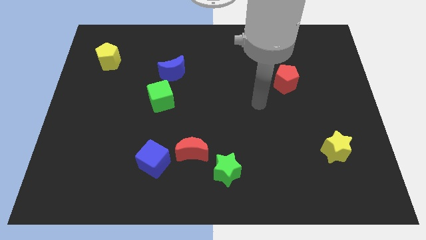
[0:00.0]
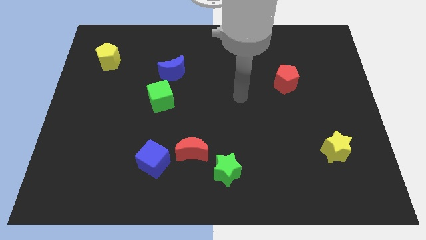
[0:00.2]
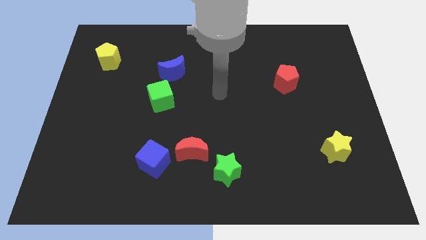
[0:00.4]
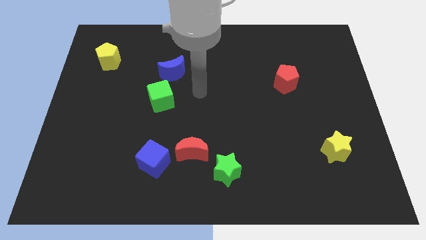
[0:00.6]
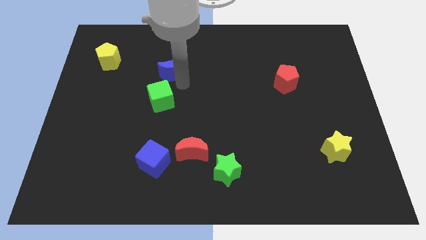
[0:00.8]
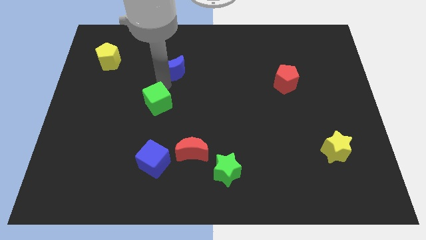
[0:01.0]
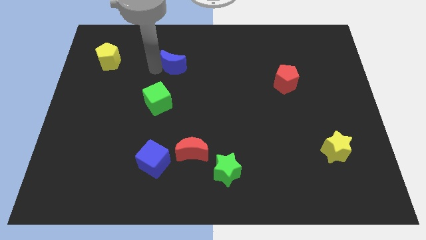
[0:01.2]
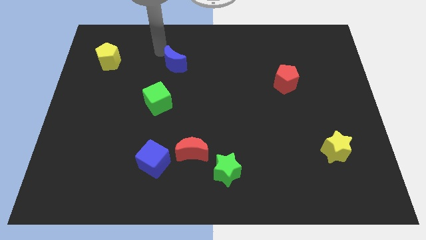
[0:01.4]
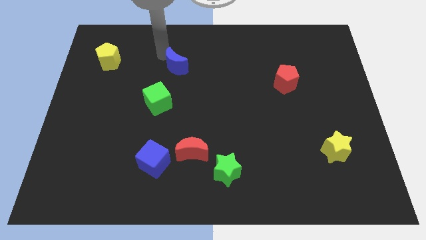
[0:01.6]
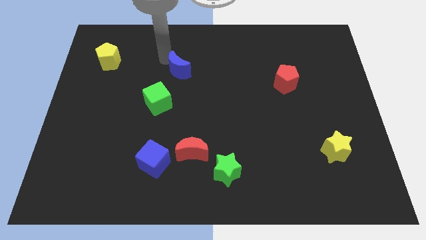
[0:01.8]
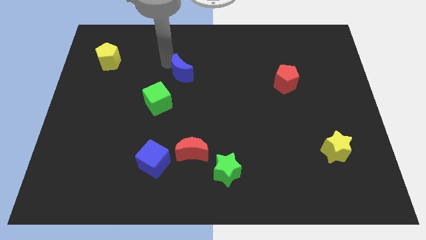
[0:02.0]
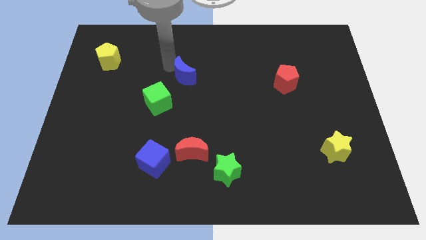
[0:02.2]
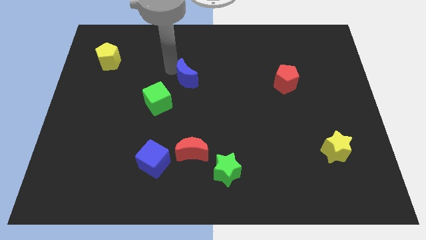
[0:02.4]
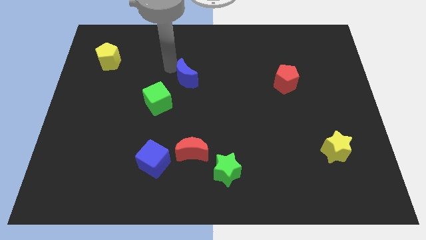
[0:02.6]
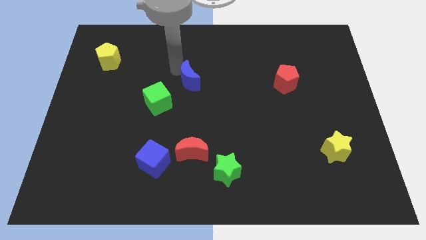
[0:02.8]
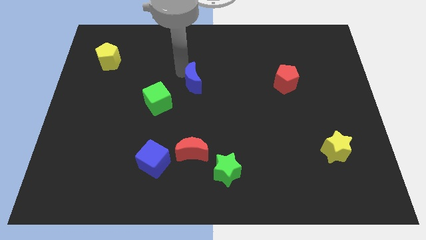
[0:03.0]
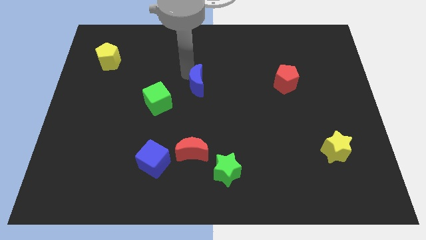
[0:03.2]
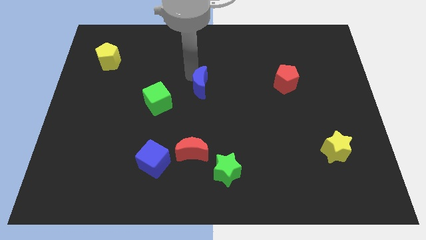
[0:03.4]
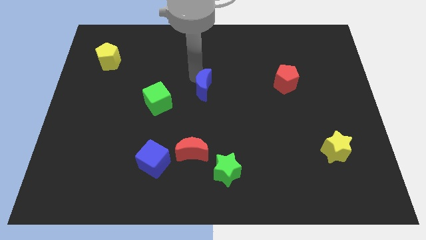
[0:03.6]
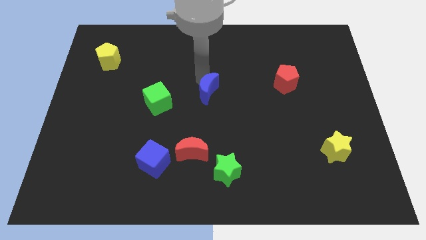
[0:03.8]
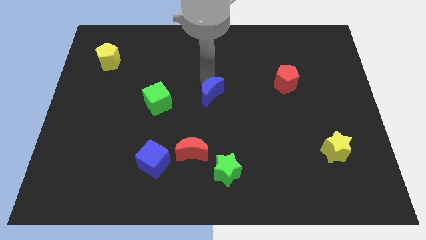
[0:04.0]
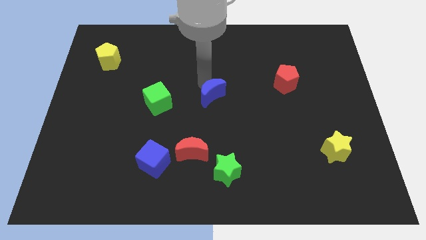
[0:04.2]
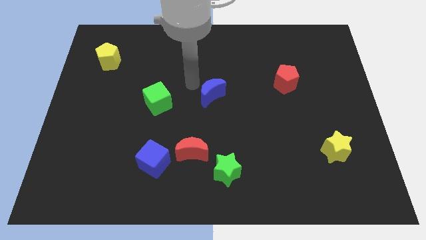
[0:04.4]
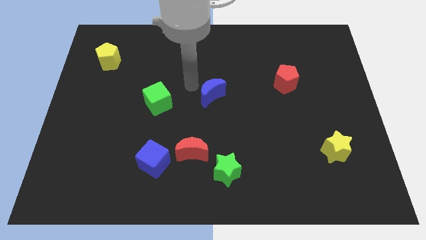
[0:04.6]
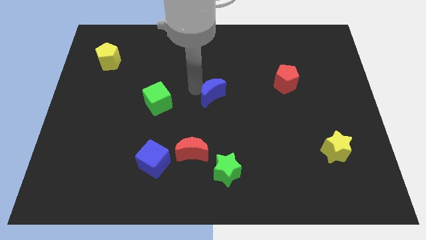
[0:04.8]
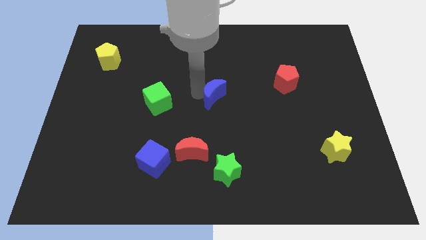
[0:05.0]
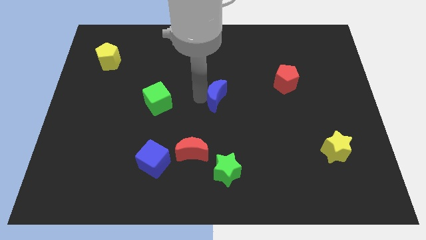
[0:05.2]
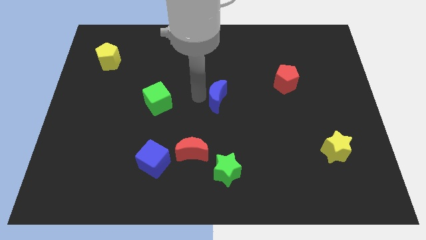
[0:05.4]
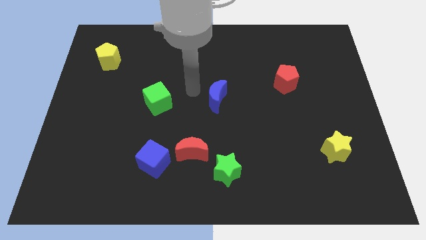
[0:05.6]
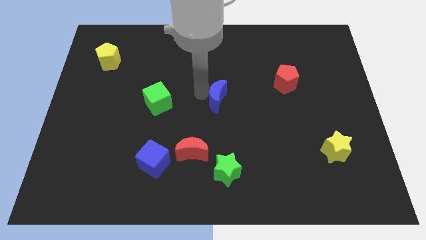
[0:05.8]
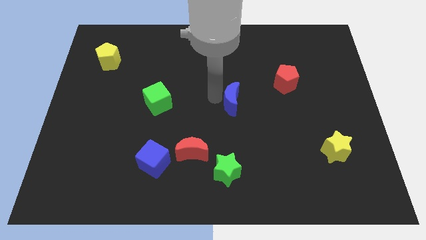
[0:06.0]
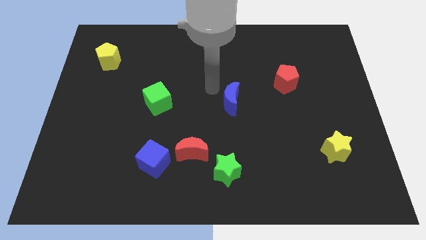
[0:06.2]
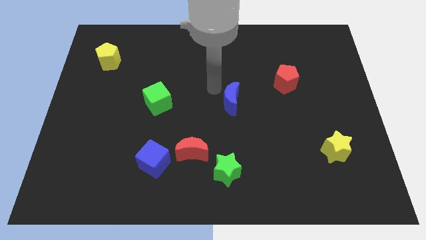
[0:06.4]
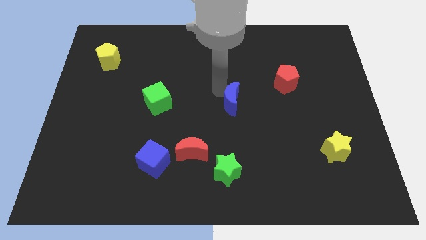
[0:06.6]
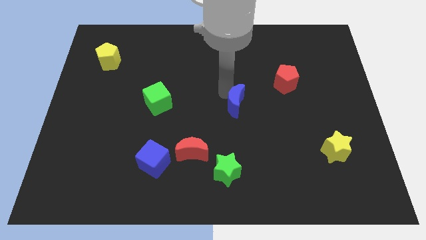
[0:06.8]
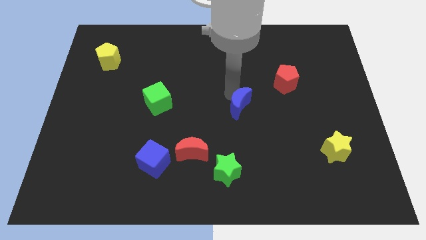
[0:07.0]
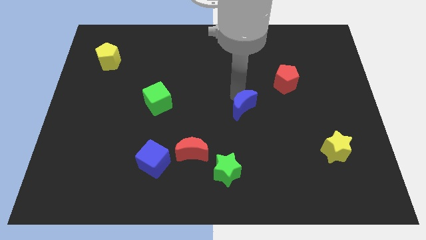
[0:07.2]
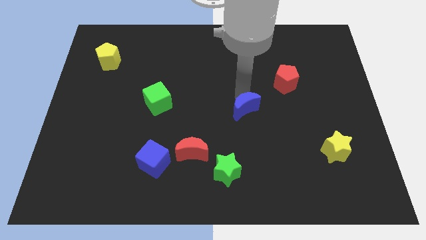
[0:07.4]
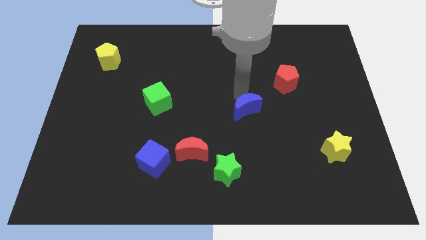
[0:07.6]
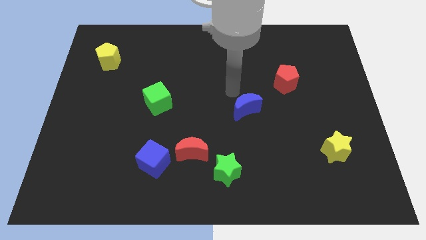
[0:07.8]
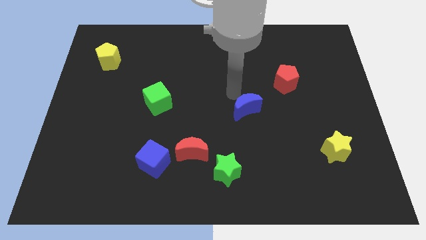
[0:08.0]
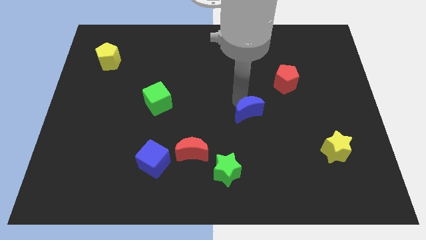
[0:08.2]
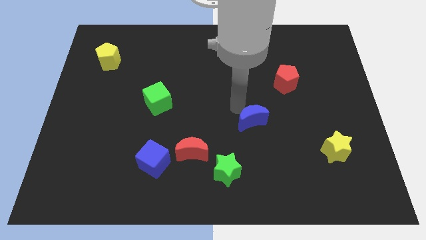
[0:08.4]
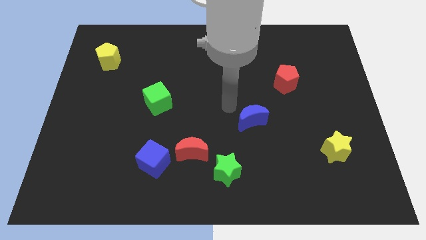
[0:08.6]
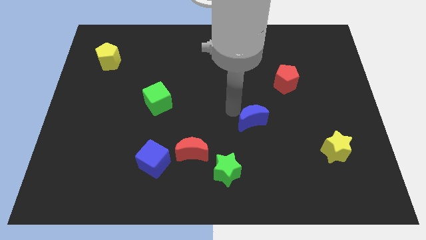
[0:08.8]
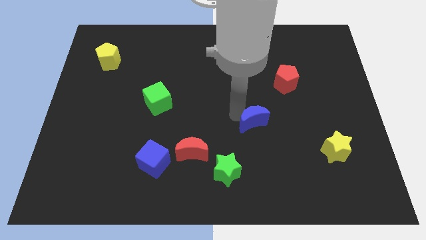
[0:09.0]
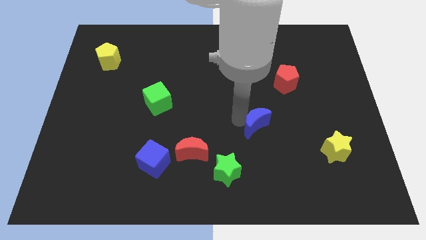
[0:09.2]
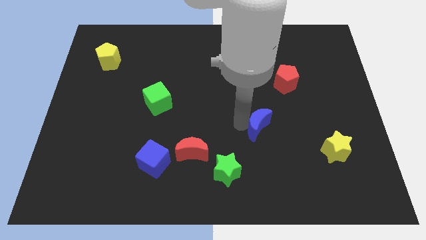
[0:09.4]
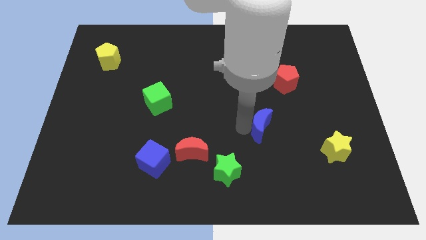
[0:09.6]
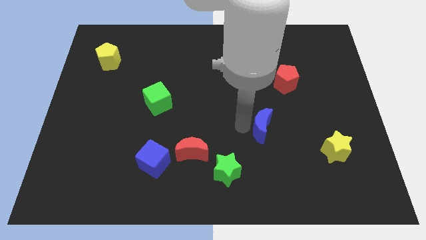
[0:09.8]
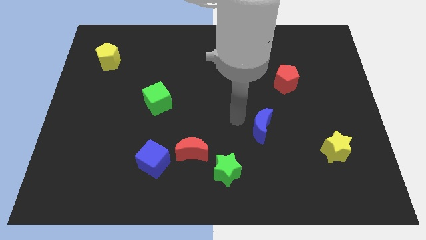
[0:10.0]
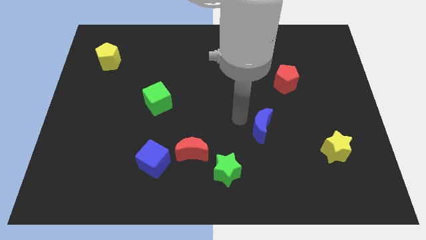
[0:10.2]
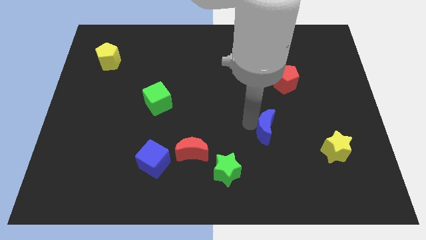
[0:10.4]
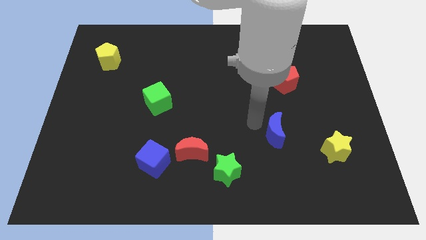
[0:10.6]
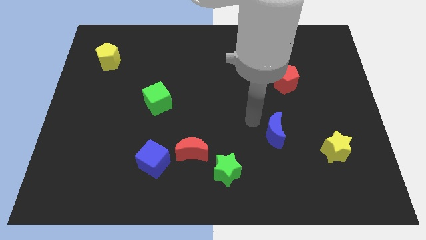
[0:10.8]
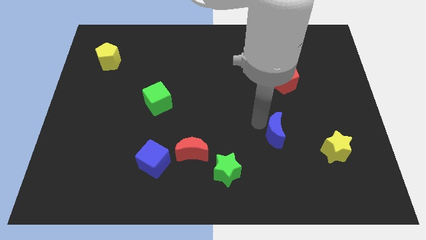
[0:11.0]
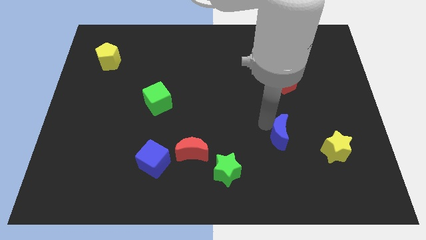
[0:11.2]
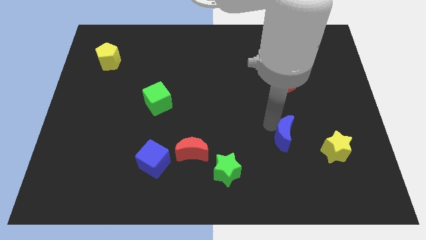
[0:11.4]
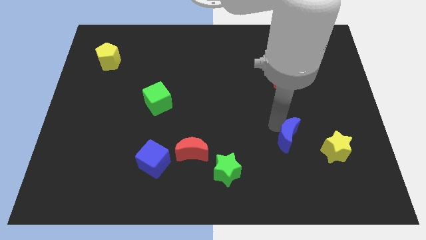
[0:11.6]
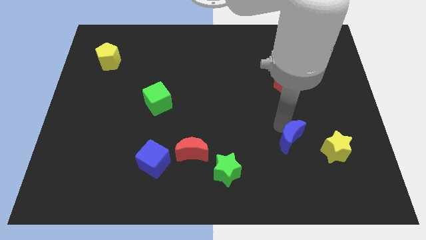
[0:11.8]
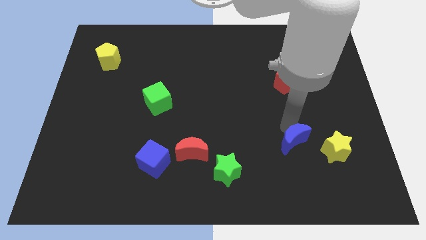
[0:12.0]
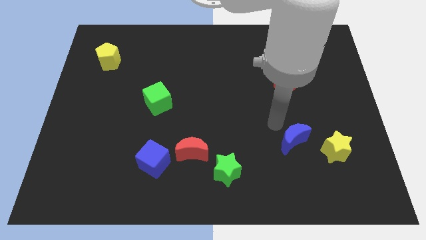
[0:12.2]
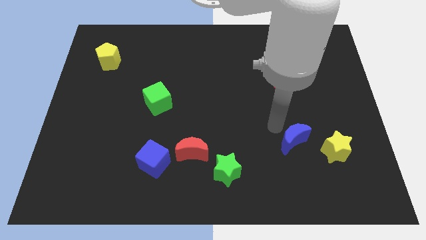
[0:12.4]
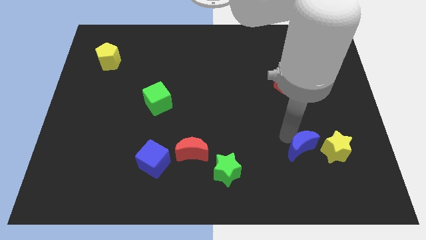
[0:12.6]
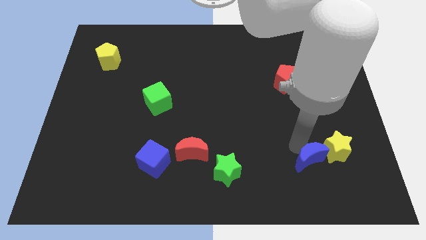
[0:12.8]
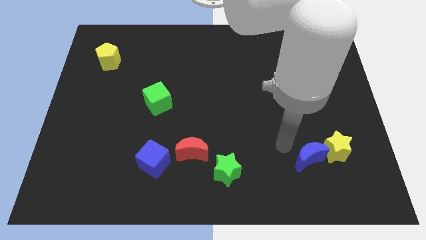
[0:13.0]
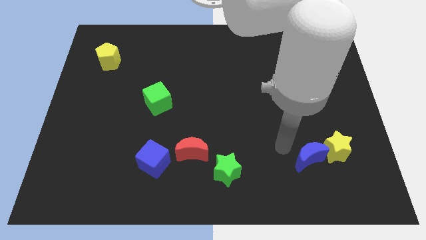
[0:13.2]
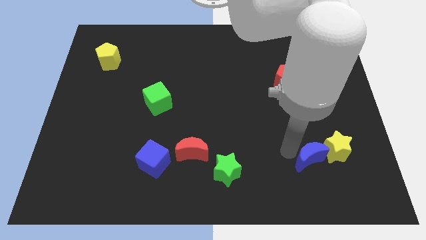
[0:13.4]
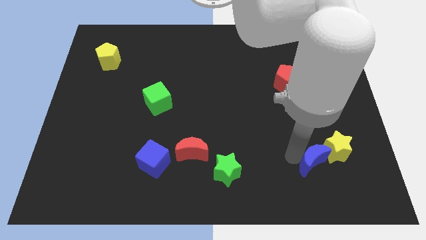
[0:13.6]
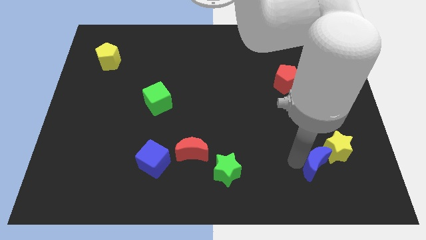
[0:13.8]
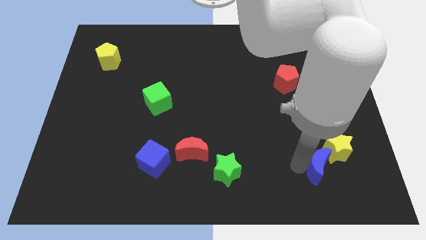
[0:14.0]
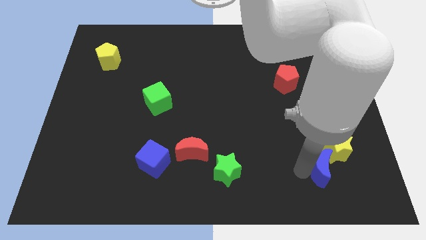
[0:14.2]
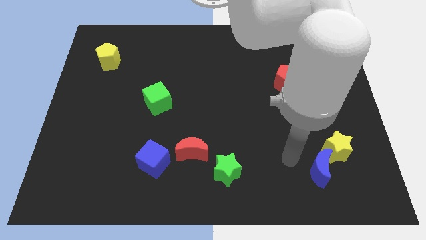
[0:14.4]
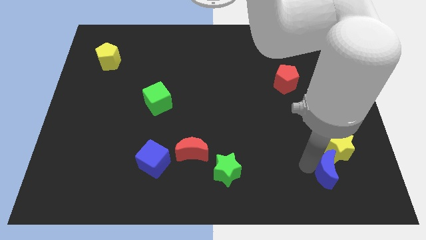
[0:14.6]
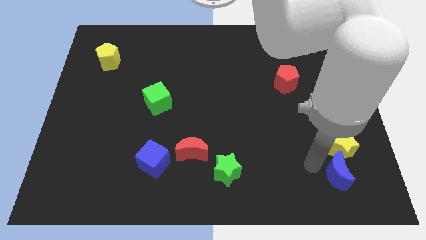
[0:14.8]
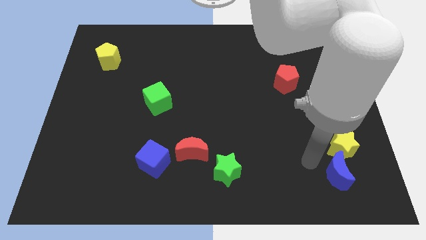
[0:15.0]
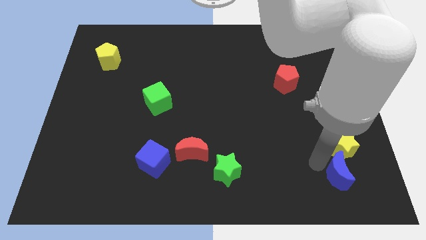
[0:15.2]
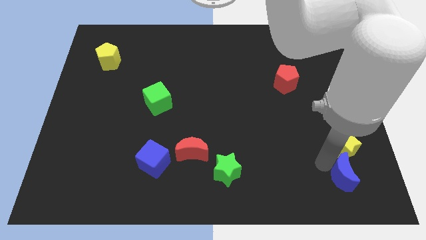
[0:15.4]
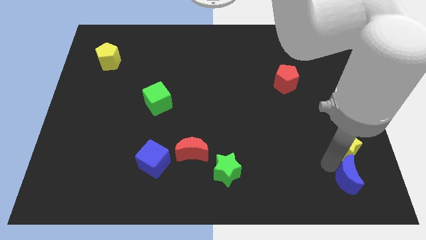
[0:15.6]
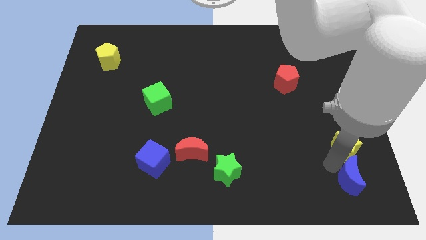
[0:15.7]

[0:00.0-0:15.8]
slide the blue moon to the bottom right
